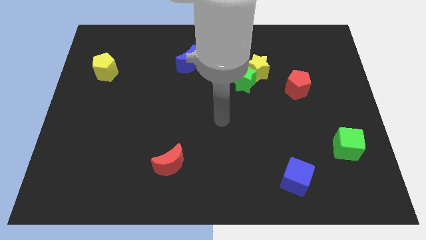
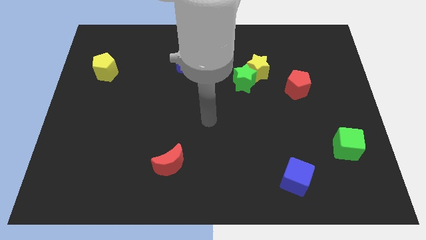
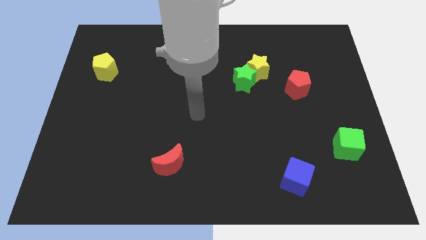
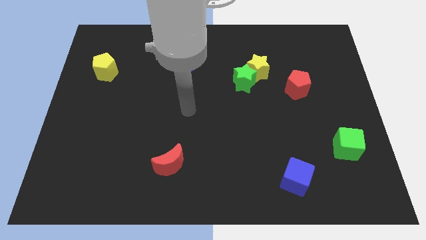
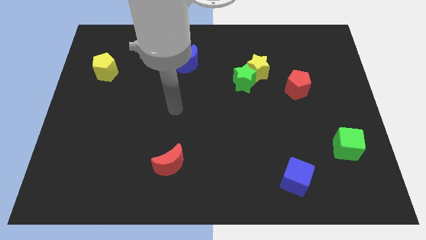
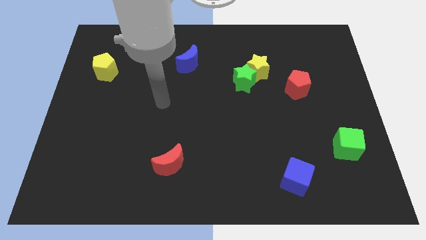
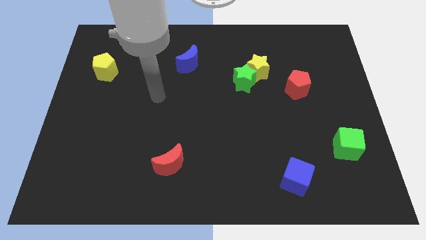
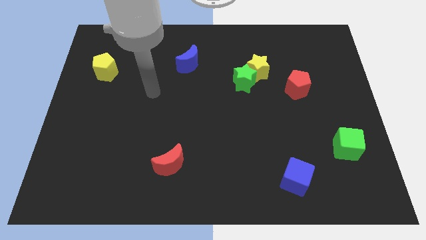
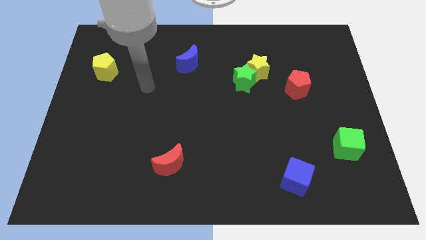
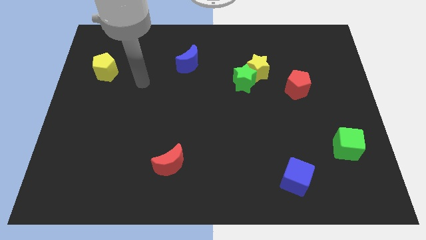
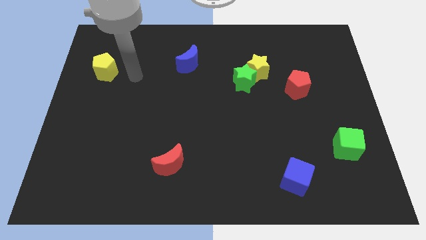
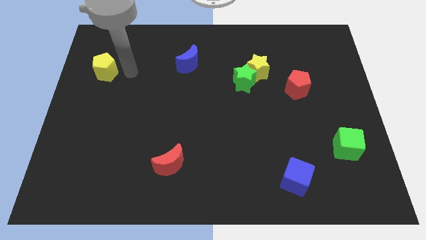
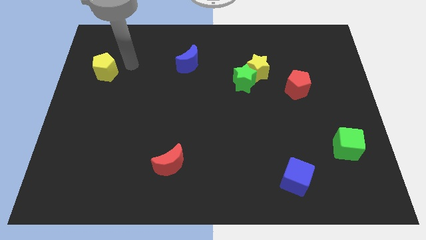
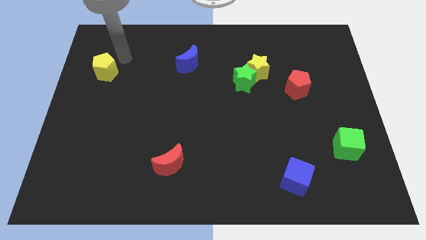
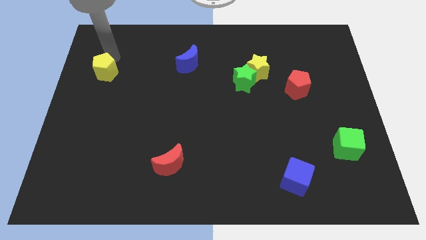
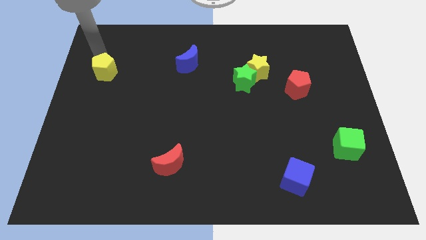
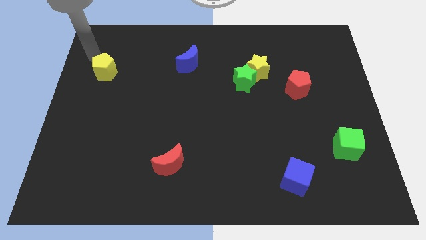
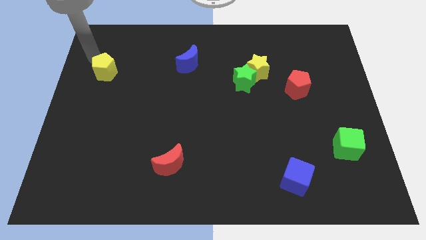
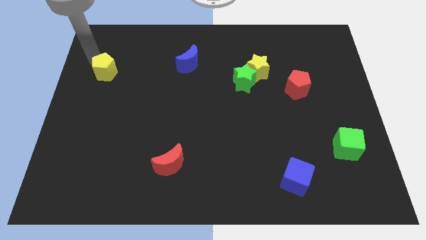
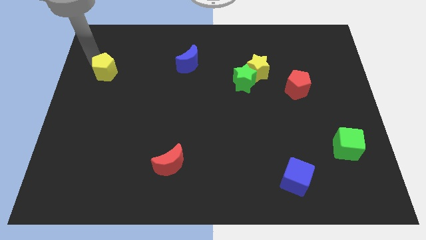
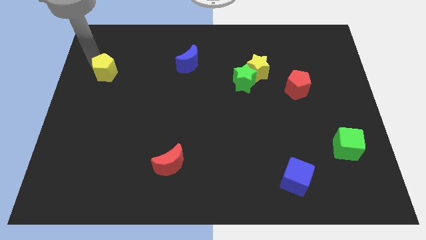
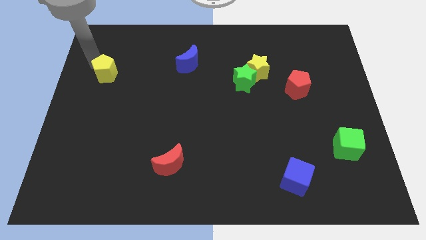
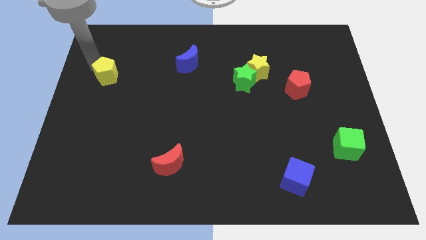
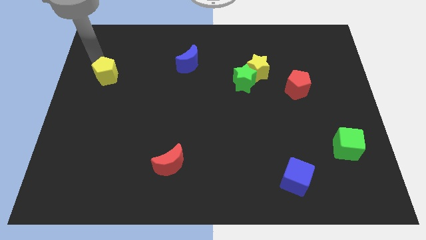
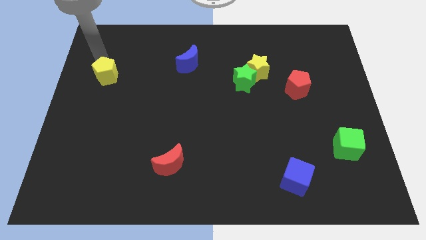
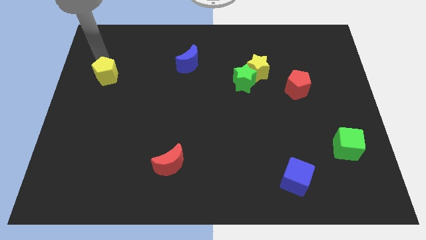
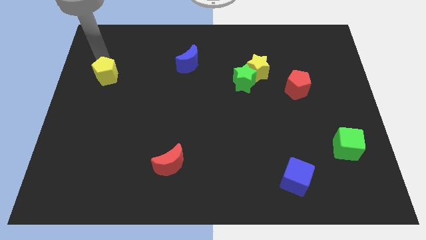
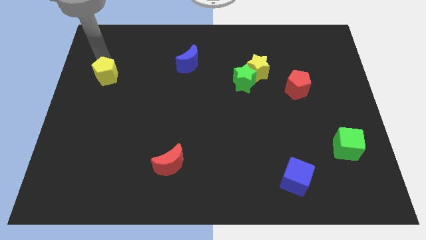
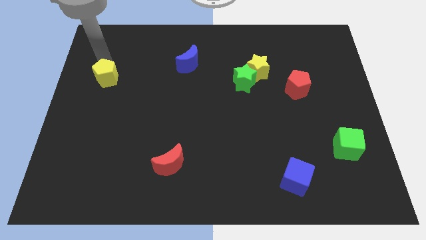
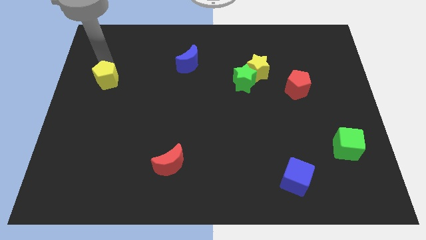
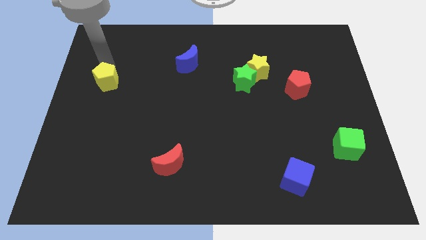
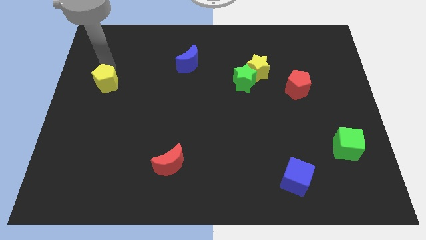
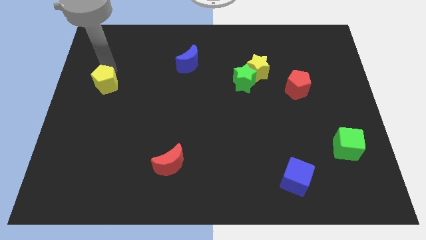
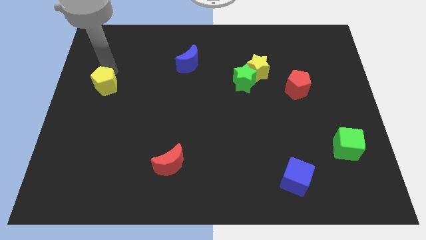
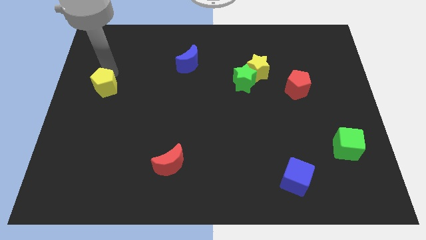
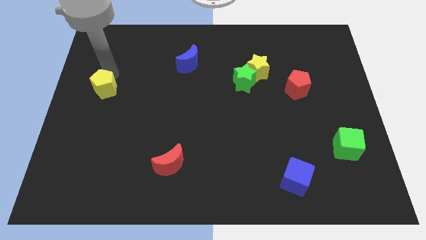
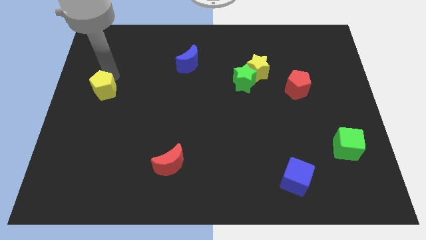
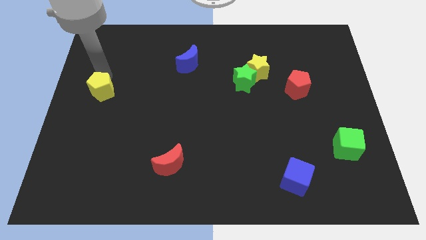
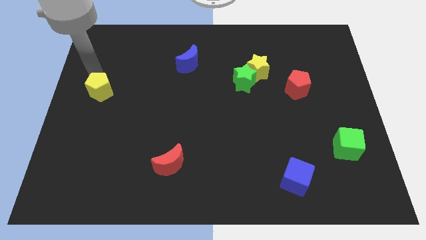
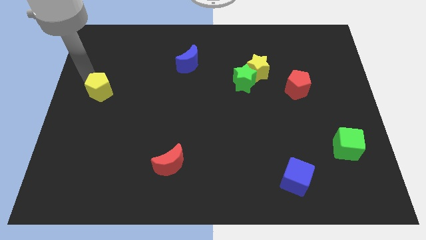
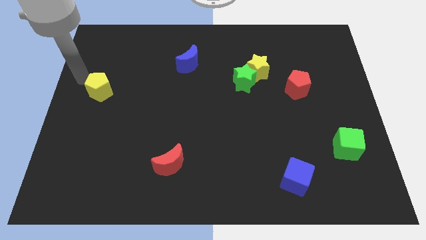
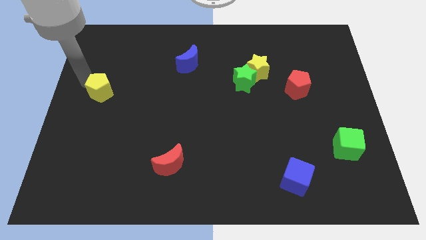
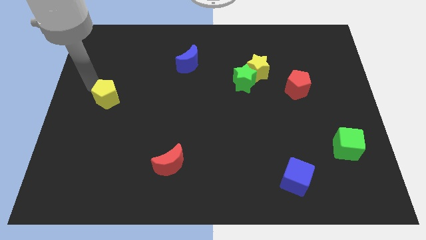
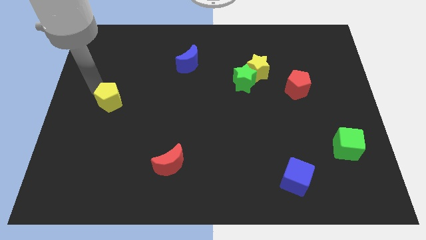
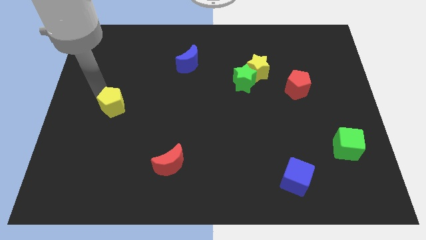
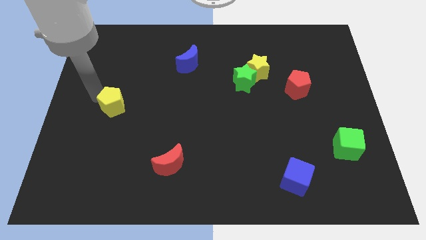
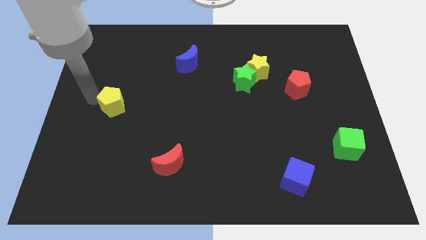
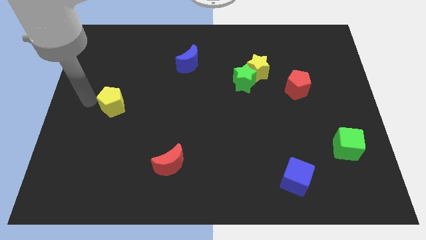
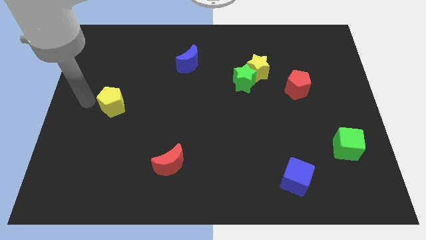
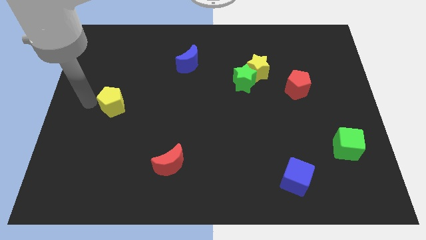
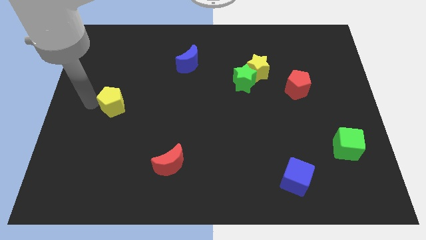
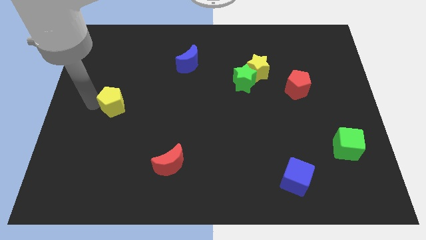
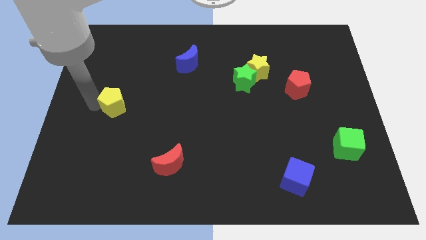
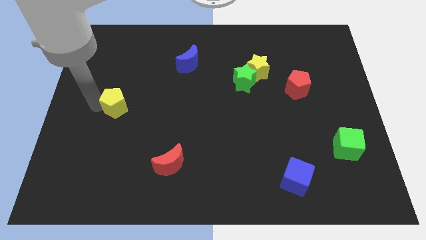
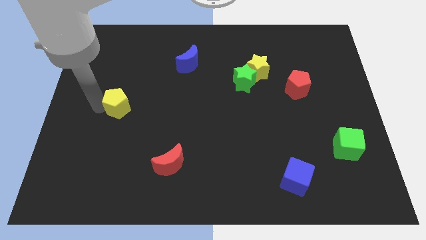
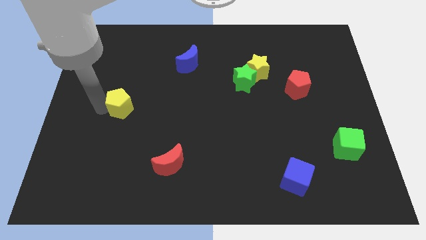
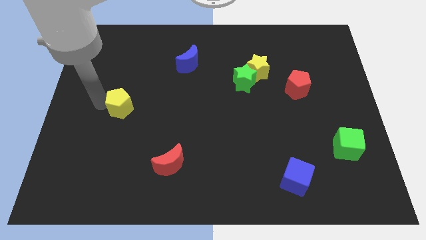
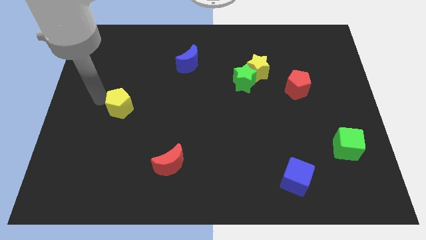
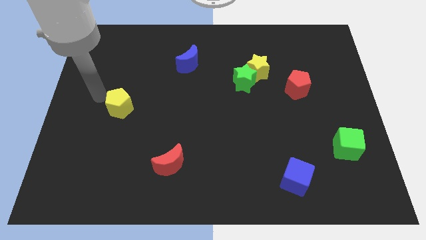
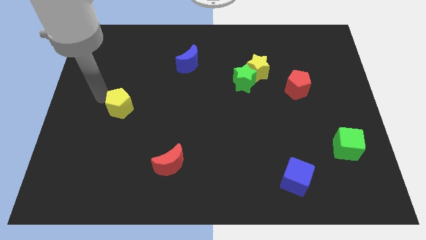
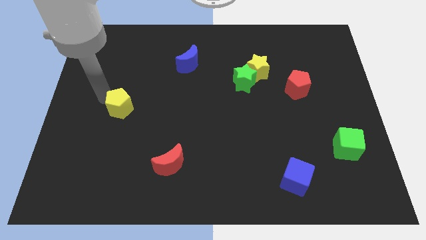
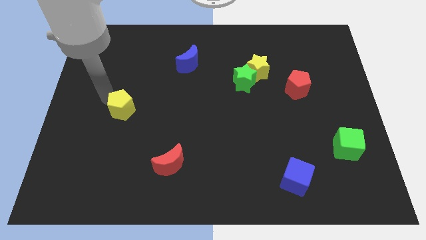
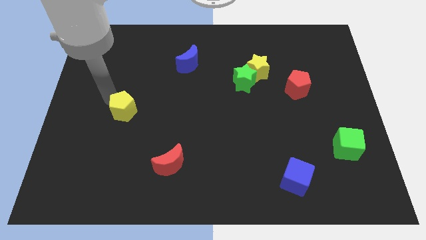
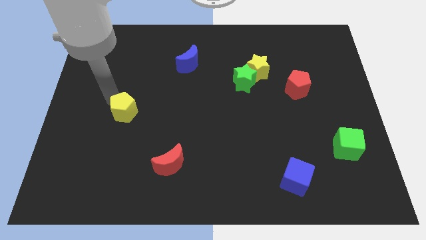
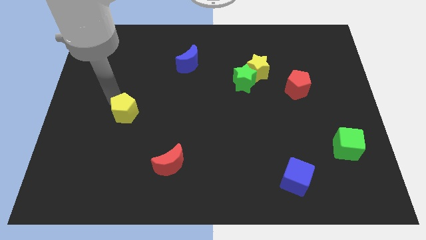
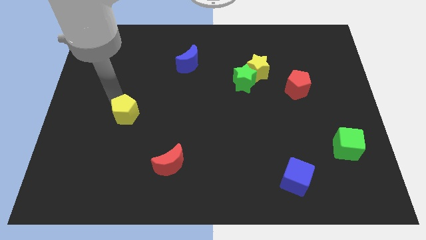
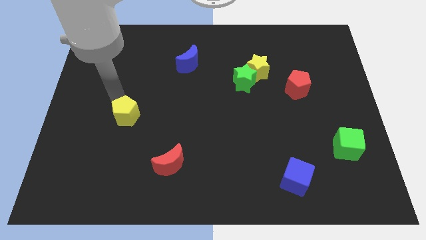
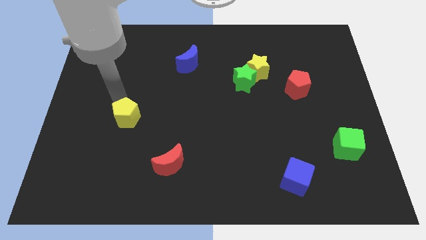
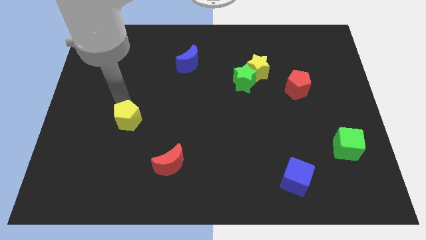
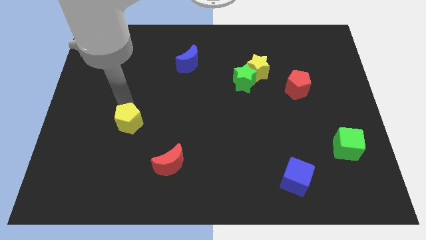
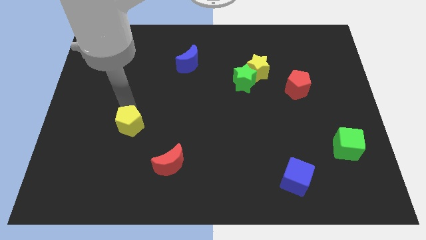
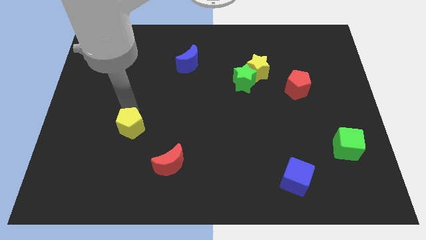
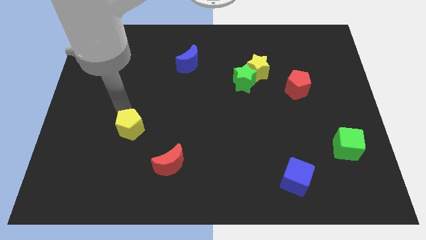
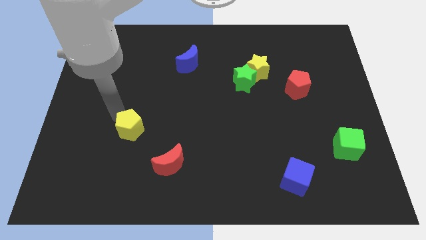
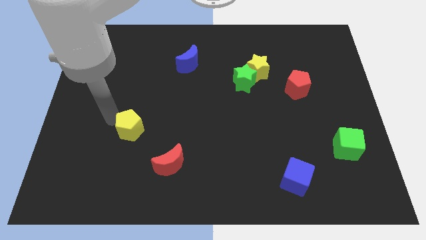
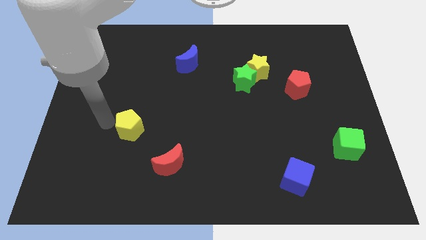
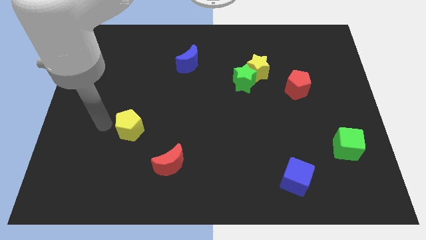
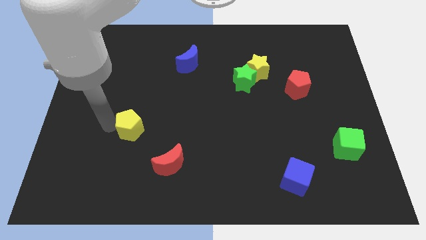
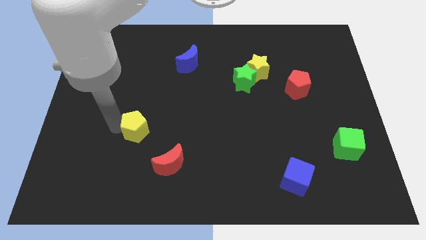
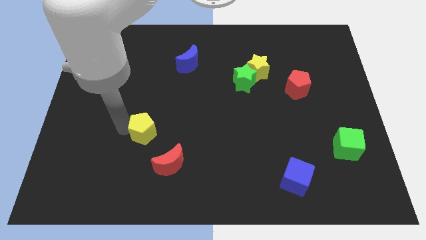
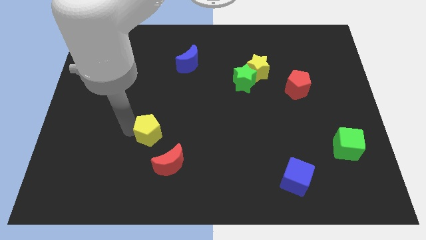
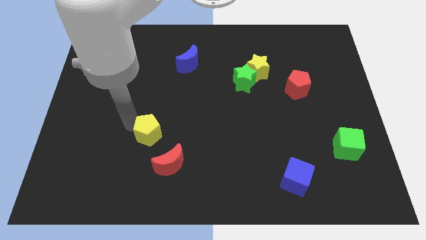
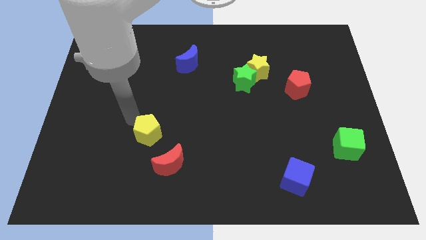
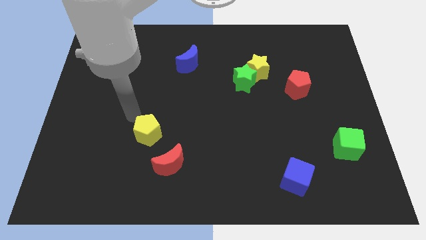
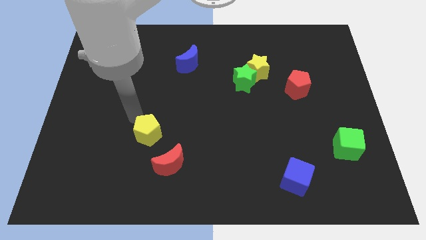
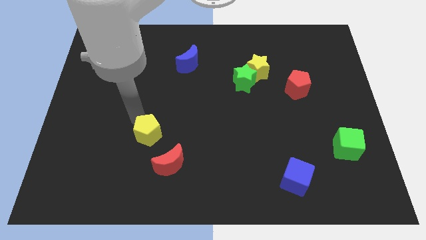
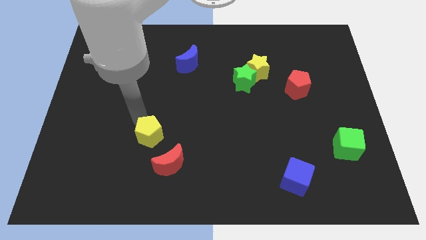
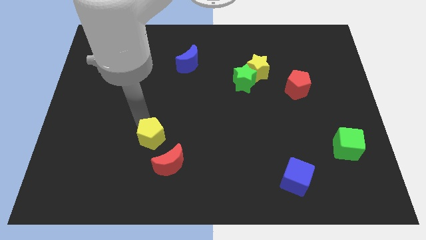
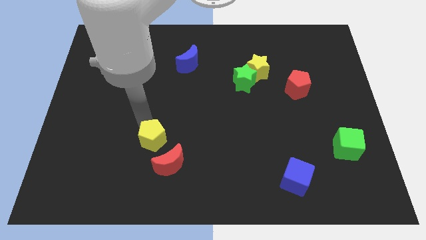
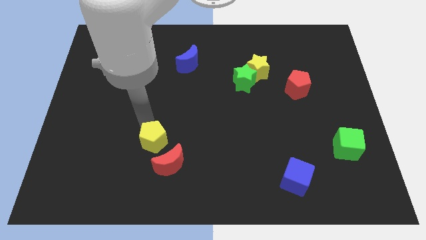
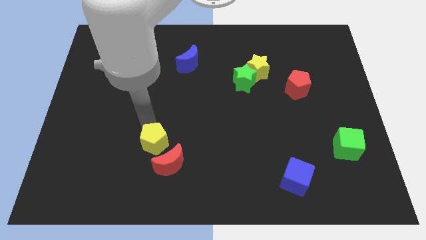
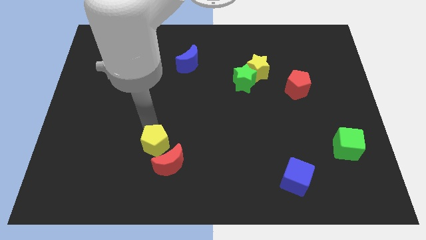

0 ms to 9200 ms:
slide the yellow pentagon to the red moon
